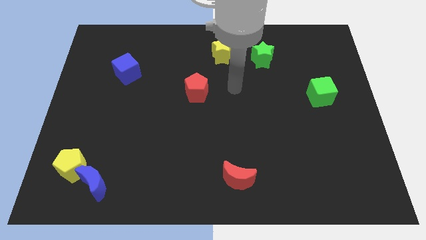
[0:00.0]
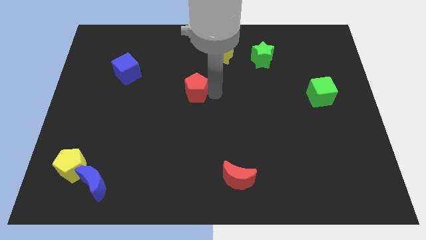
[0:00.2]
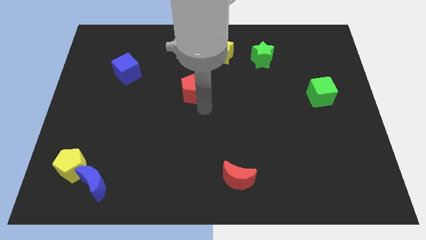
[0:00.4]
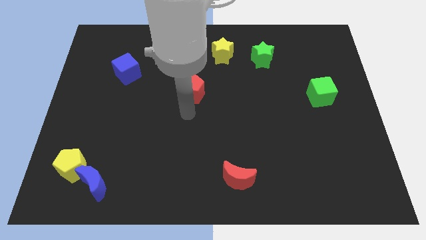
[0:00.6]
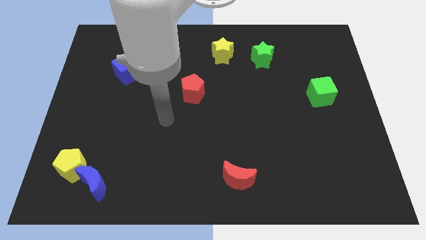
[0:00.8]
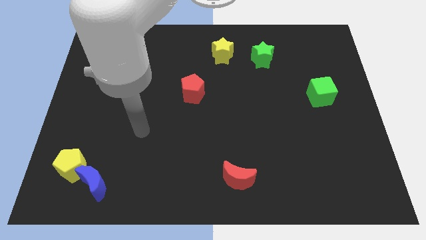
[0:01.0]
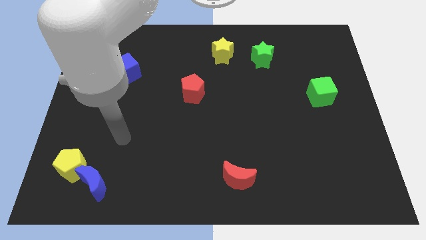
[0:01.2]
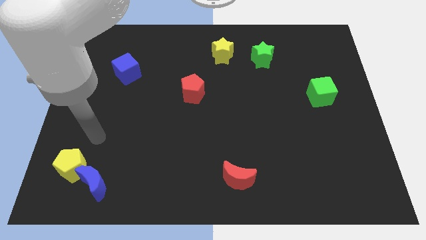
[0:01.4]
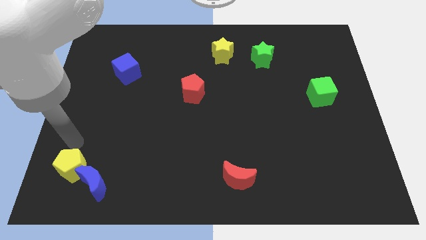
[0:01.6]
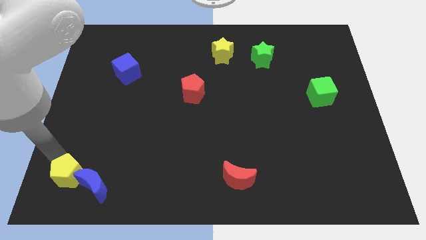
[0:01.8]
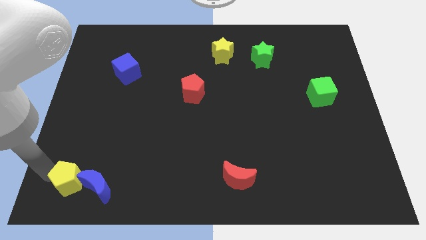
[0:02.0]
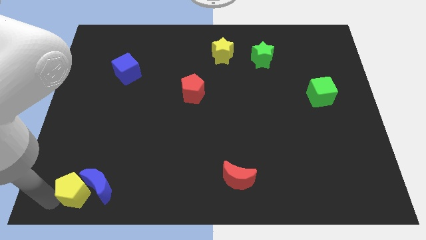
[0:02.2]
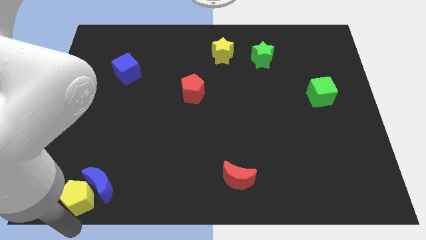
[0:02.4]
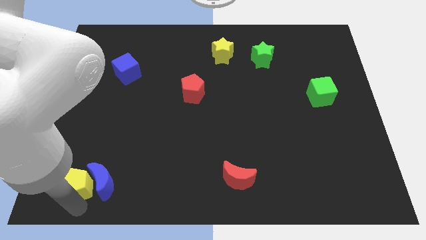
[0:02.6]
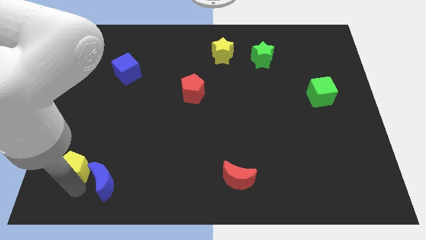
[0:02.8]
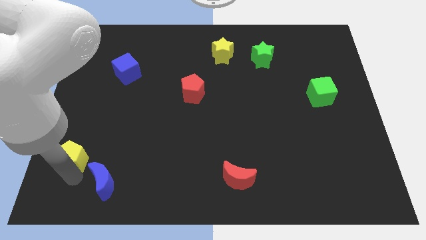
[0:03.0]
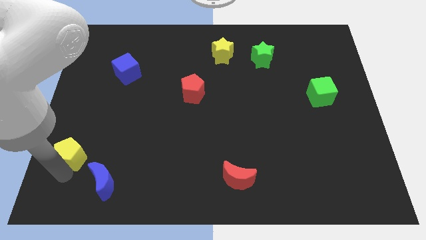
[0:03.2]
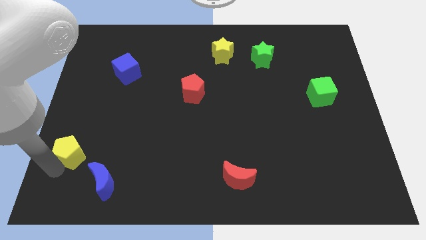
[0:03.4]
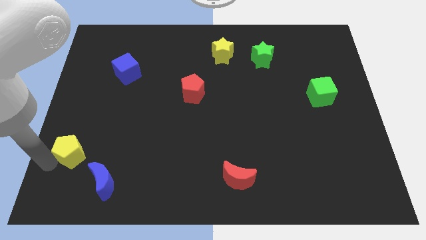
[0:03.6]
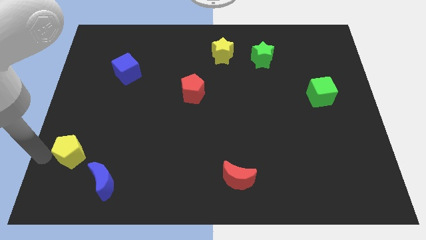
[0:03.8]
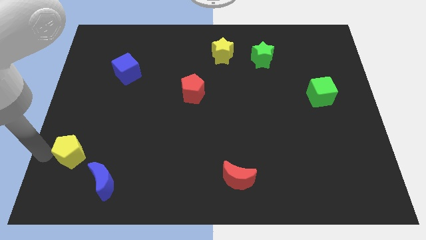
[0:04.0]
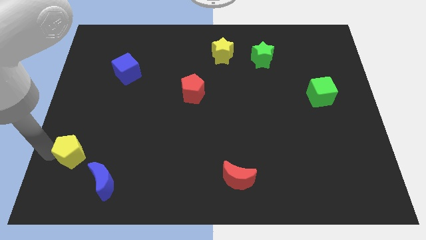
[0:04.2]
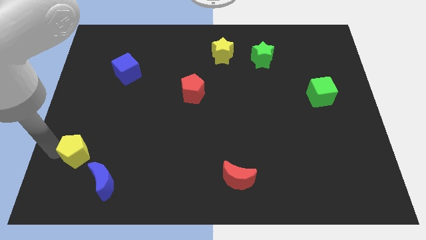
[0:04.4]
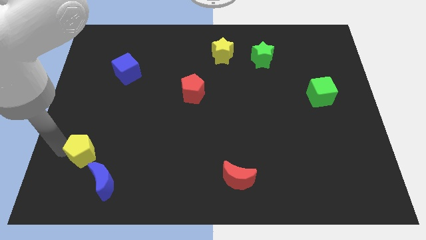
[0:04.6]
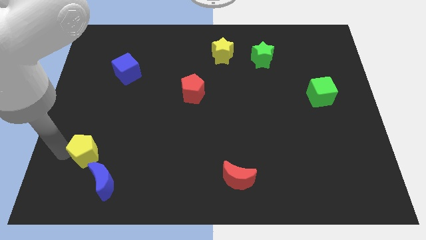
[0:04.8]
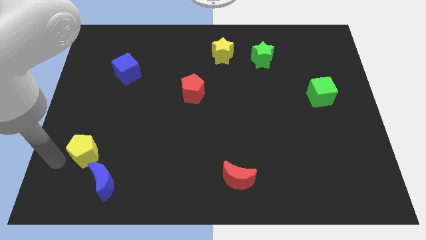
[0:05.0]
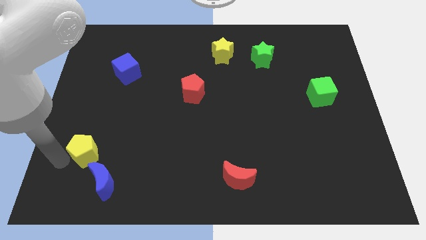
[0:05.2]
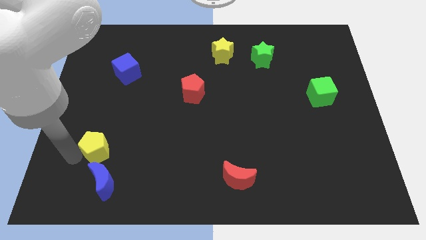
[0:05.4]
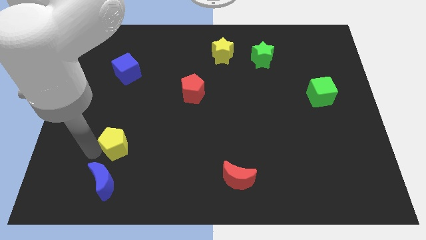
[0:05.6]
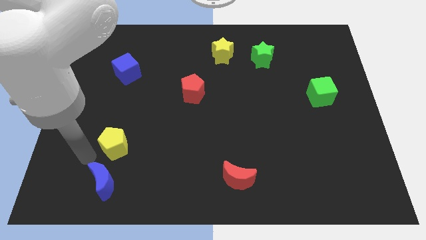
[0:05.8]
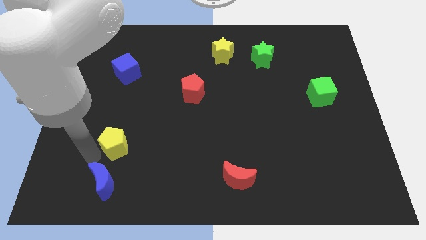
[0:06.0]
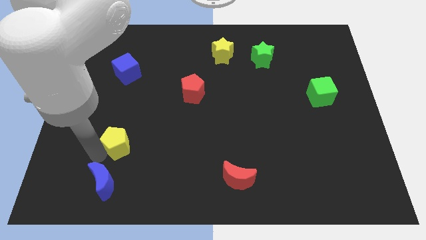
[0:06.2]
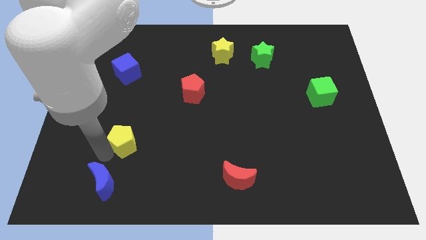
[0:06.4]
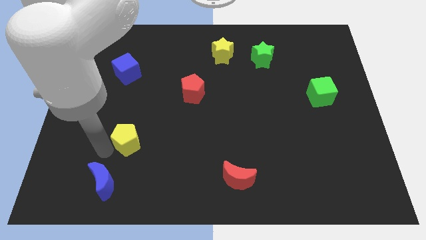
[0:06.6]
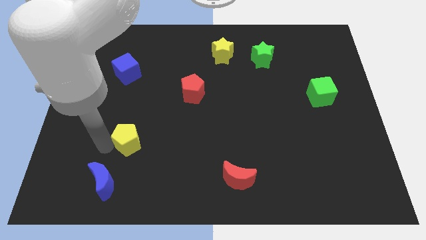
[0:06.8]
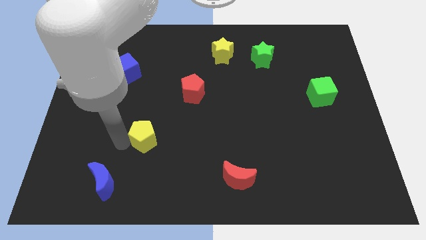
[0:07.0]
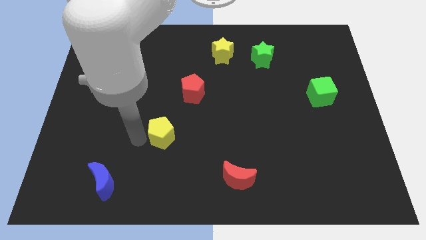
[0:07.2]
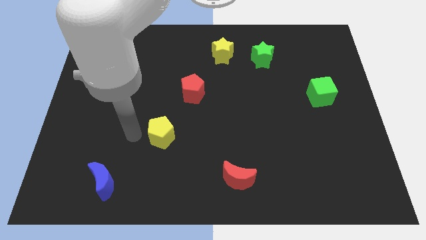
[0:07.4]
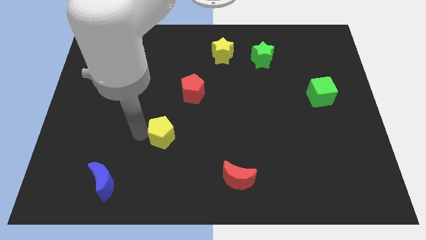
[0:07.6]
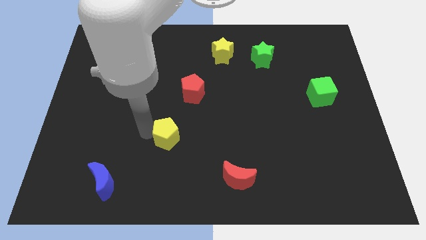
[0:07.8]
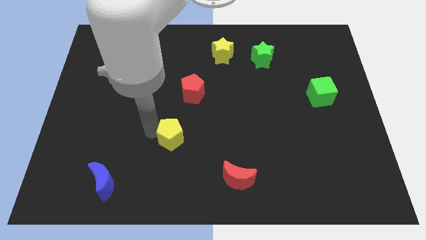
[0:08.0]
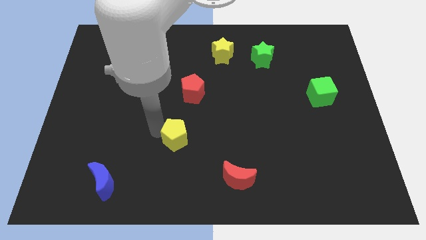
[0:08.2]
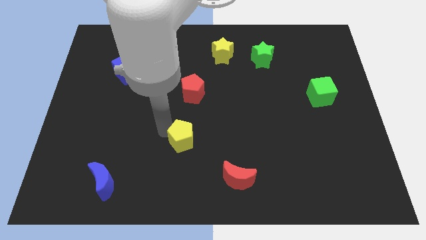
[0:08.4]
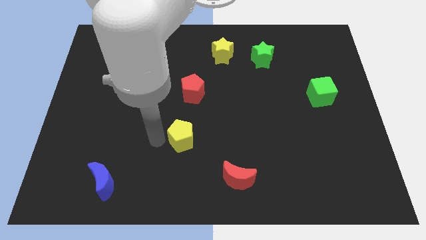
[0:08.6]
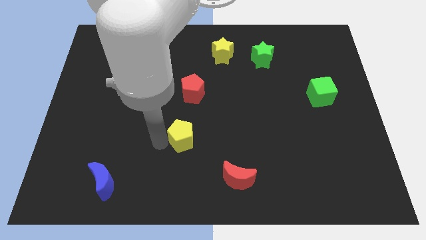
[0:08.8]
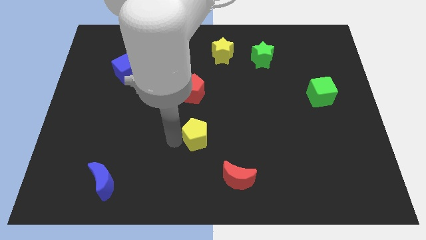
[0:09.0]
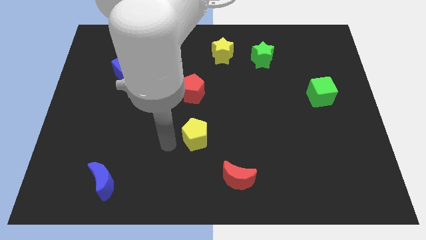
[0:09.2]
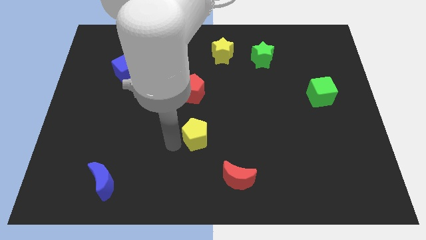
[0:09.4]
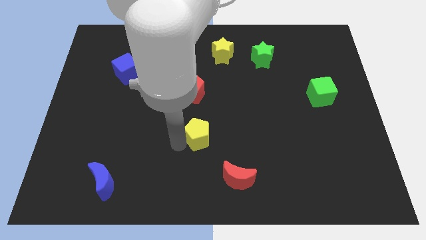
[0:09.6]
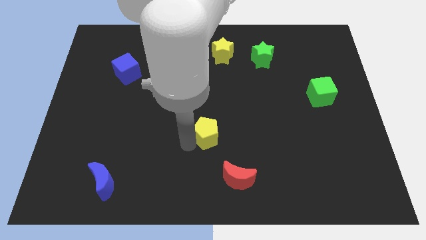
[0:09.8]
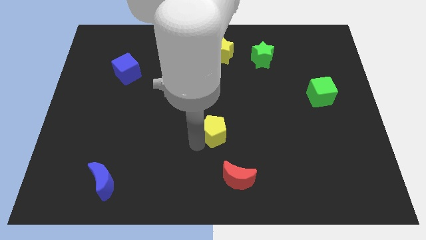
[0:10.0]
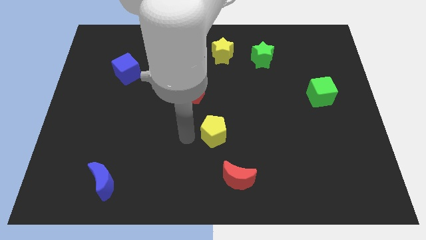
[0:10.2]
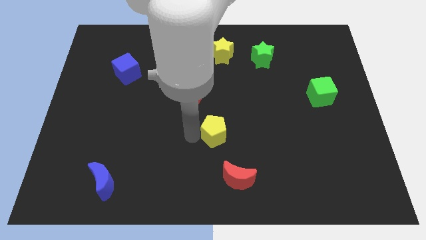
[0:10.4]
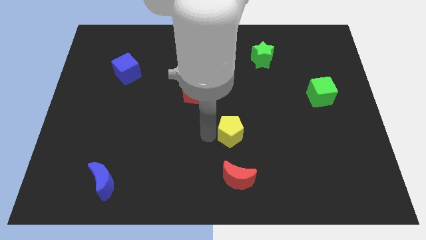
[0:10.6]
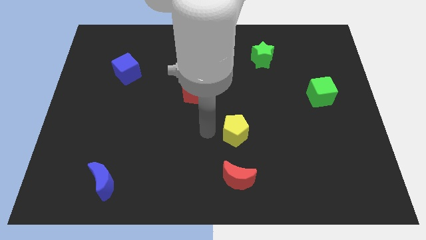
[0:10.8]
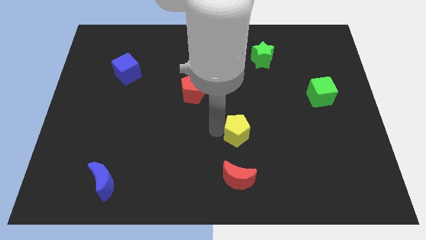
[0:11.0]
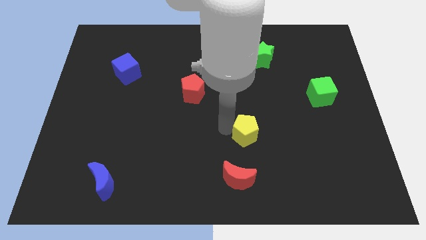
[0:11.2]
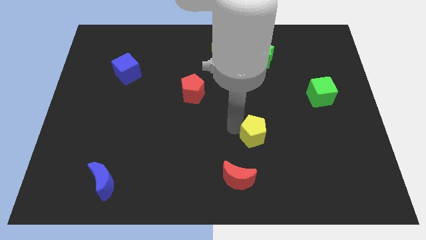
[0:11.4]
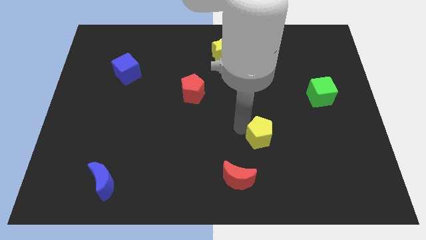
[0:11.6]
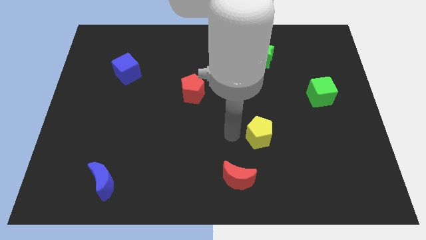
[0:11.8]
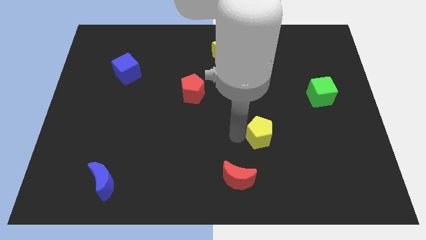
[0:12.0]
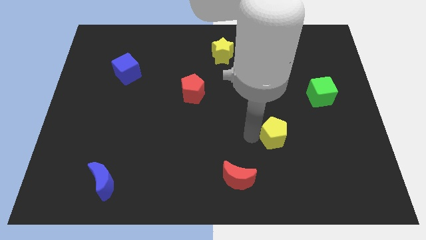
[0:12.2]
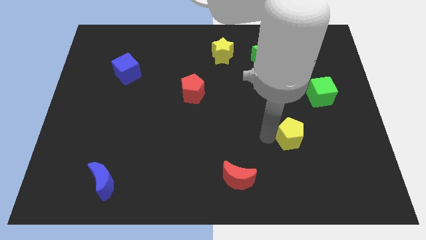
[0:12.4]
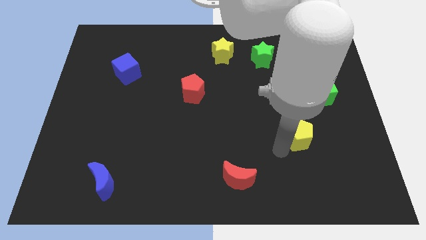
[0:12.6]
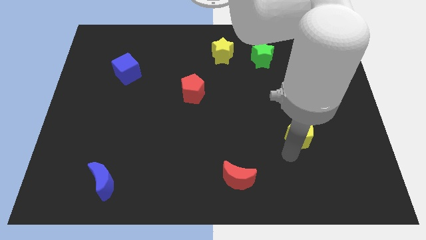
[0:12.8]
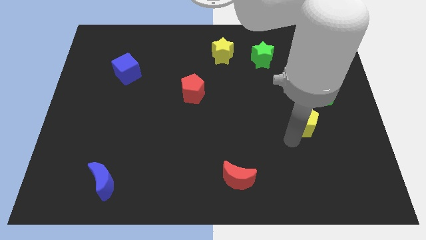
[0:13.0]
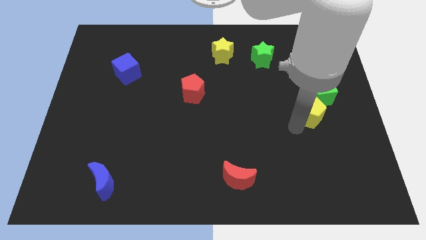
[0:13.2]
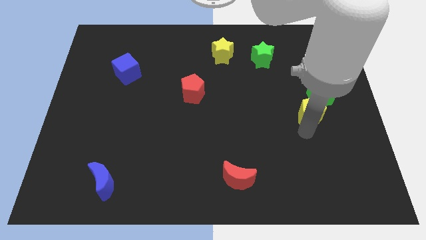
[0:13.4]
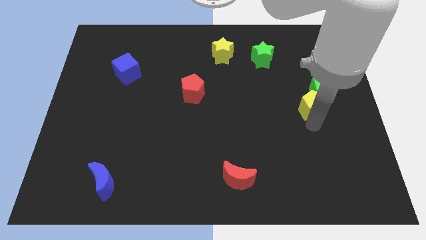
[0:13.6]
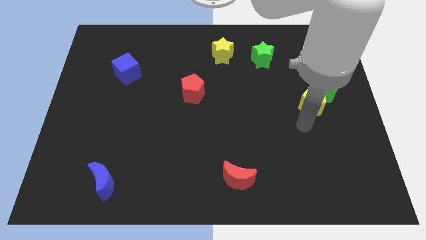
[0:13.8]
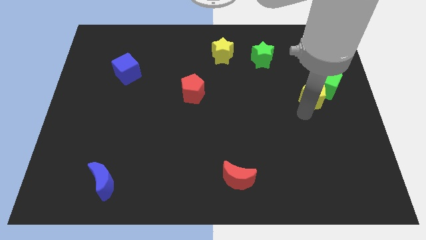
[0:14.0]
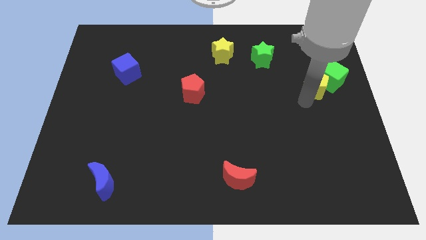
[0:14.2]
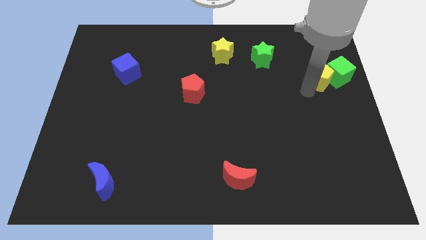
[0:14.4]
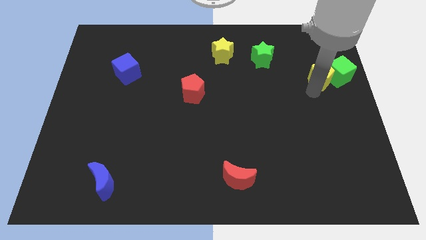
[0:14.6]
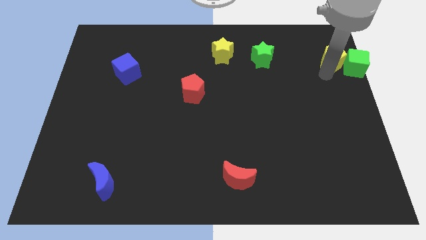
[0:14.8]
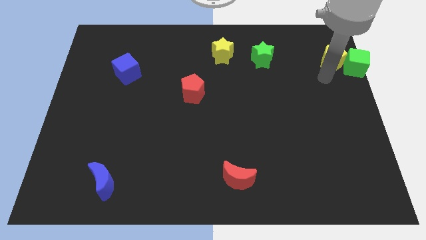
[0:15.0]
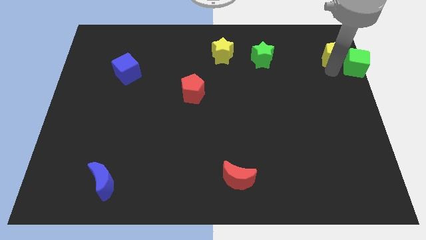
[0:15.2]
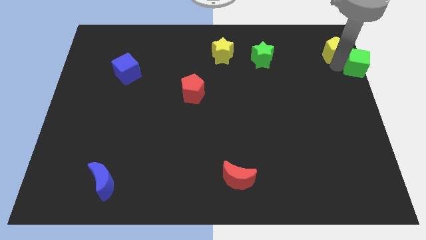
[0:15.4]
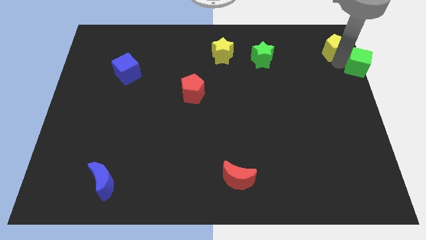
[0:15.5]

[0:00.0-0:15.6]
move the yellow pentagon to the upper right corner

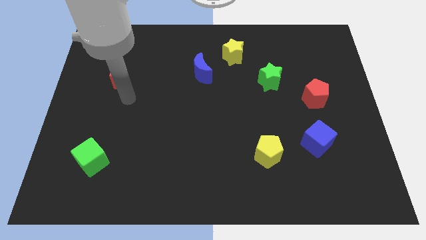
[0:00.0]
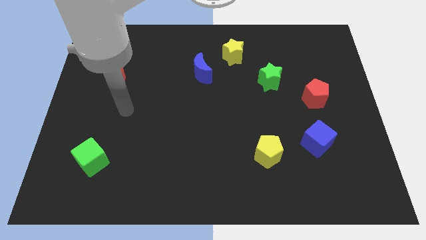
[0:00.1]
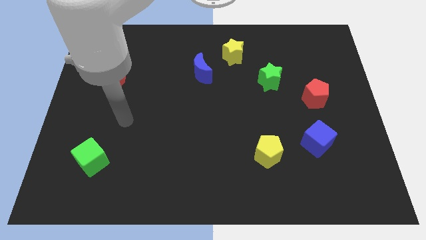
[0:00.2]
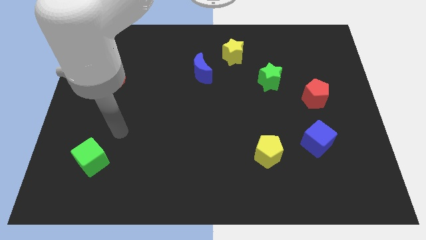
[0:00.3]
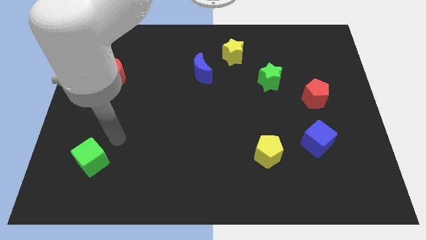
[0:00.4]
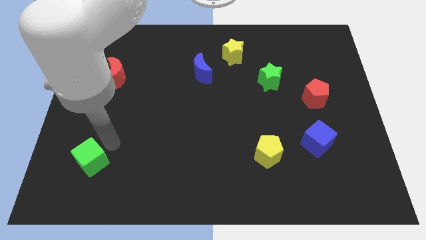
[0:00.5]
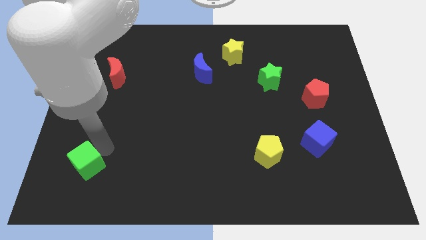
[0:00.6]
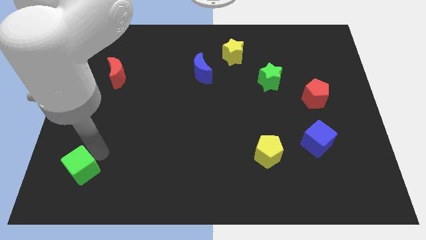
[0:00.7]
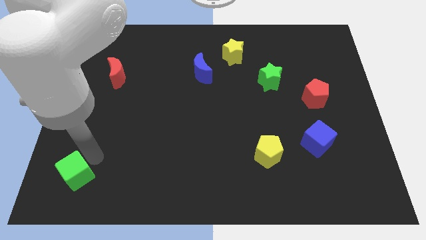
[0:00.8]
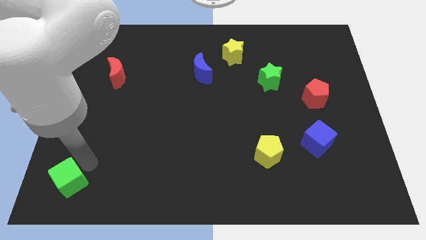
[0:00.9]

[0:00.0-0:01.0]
put the green cube to the bottom left
